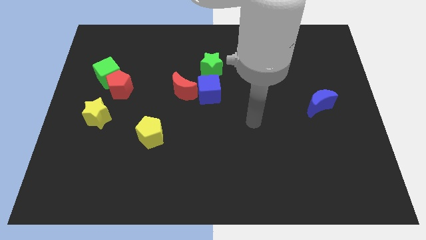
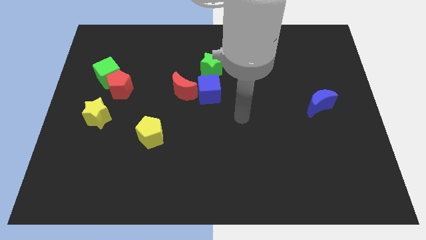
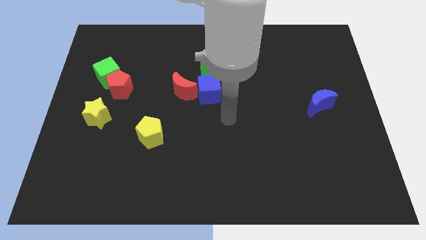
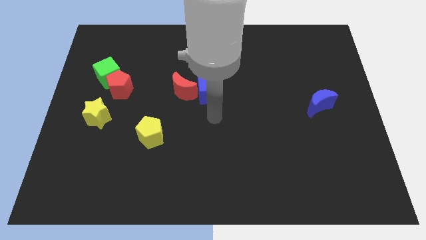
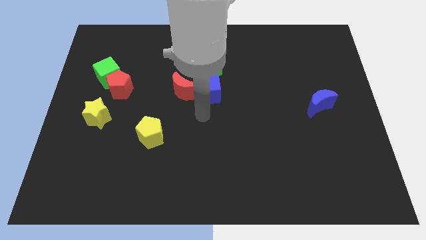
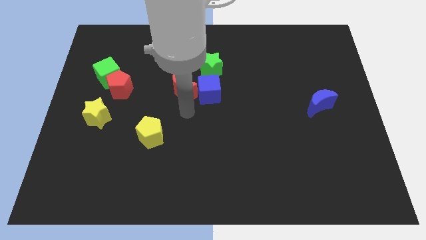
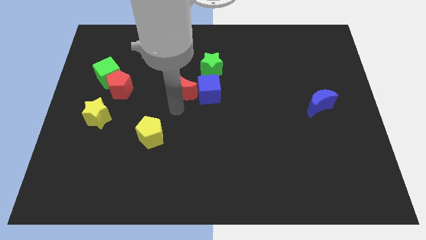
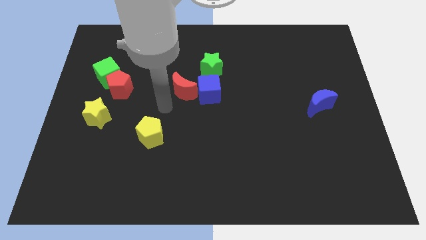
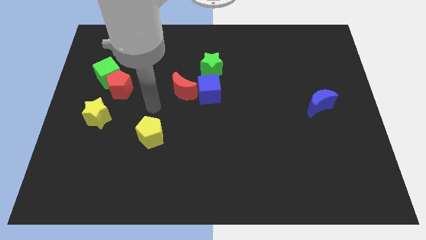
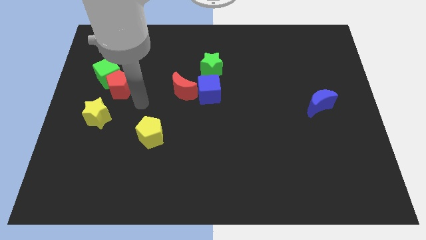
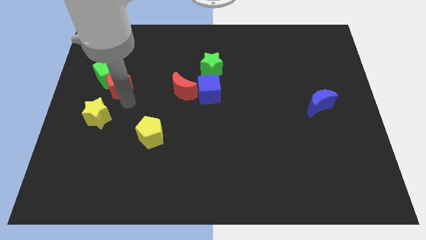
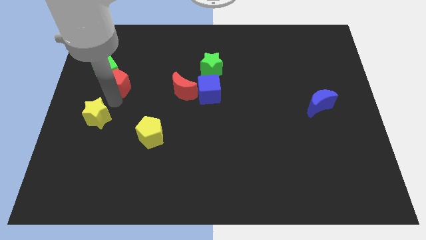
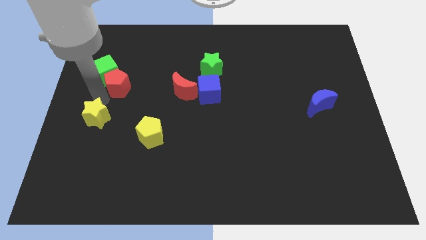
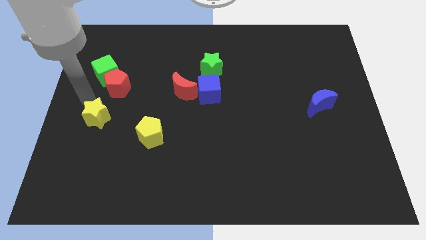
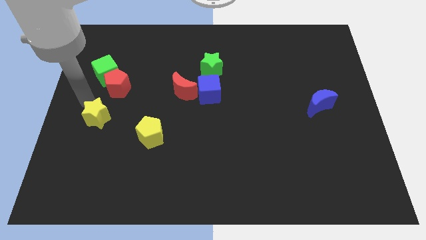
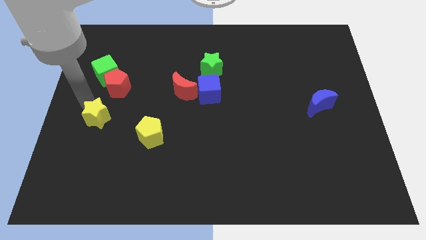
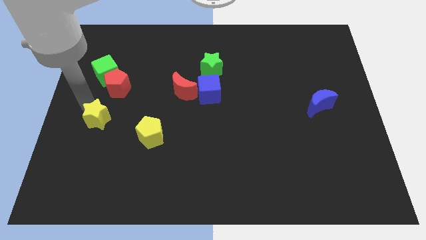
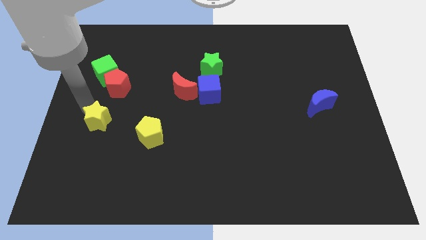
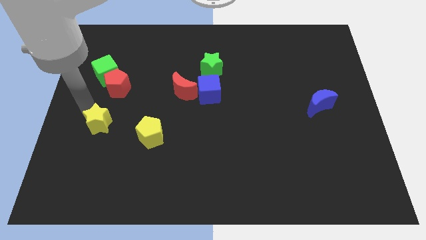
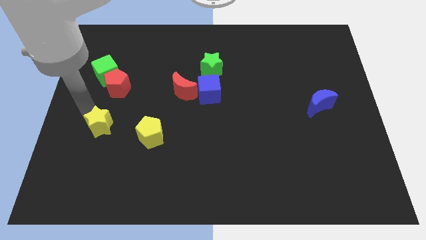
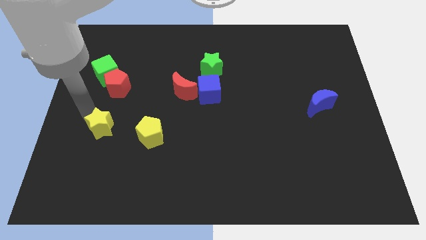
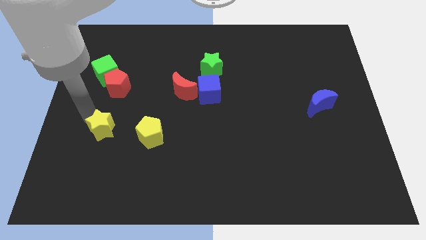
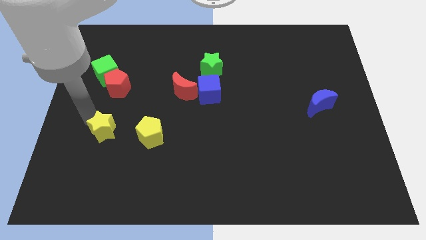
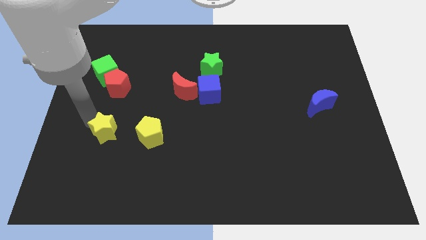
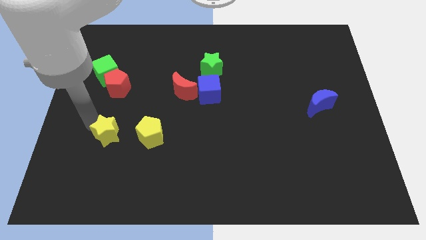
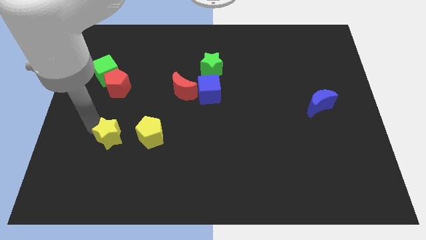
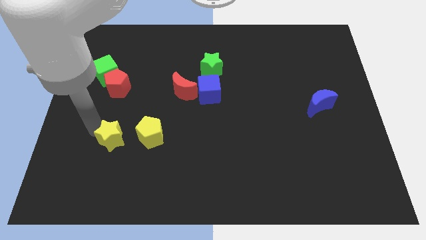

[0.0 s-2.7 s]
move the yellow star downwards and to the right a little bit

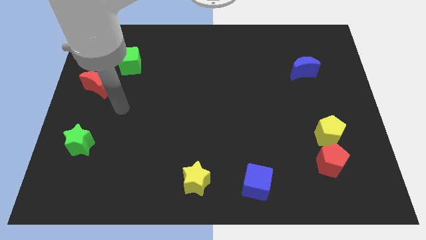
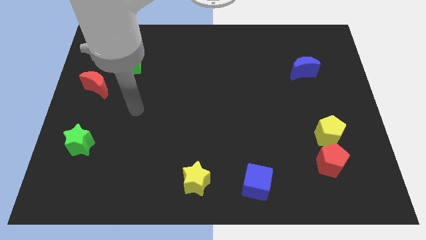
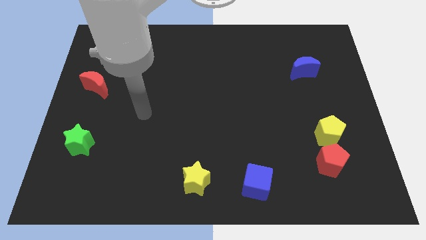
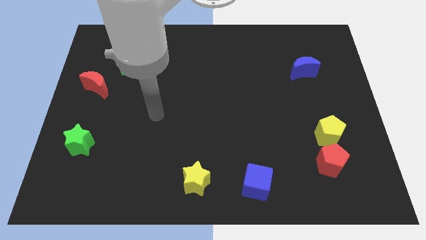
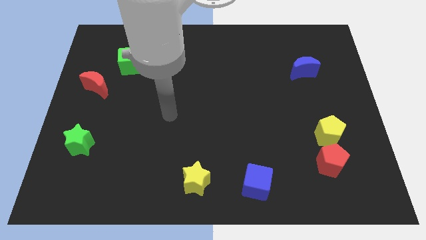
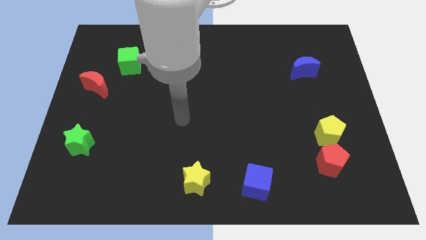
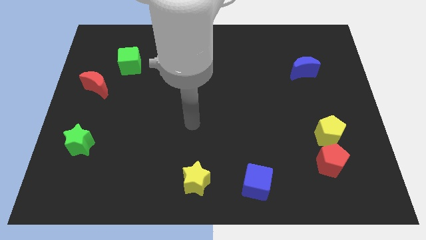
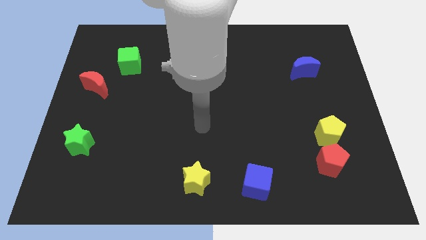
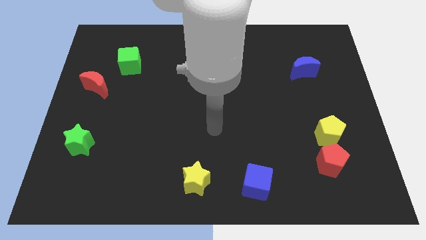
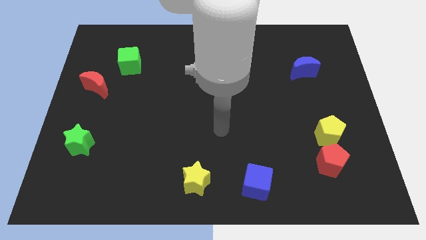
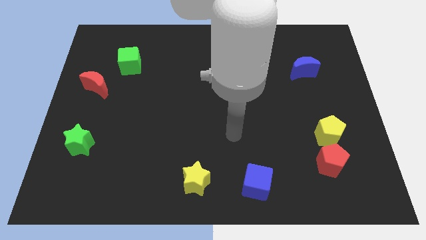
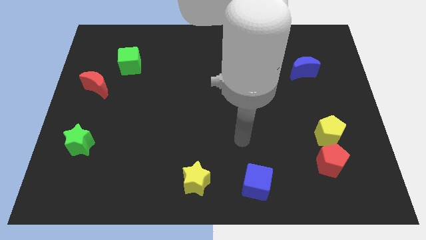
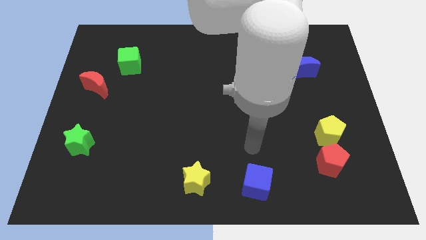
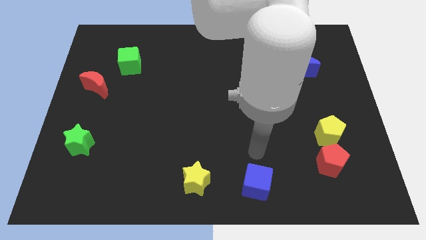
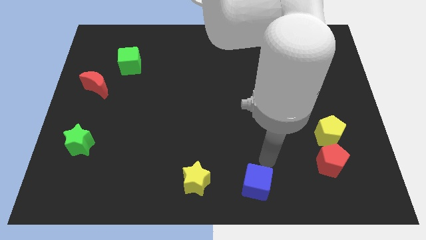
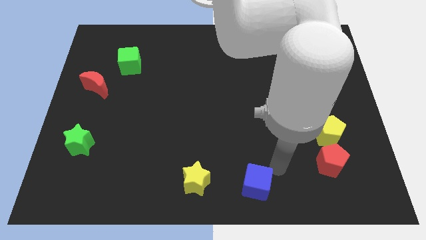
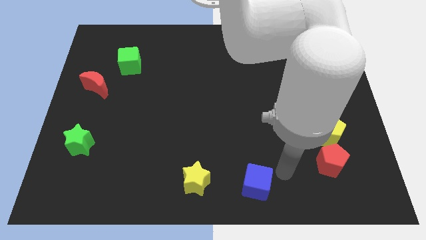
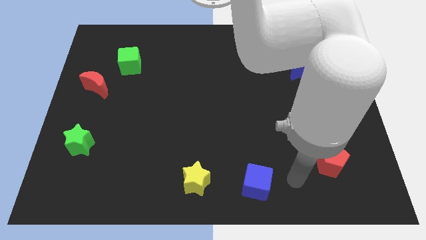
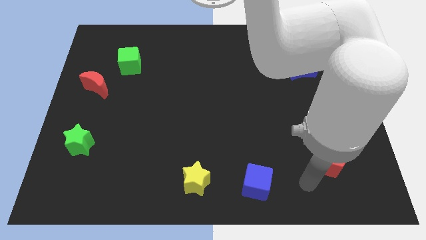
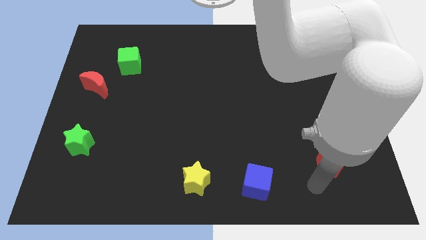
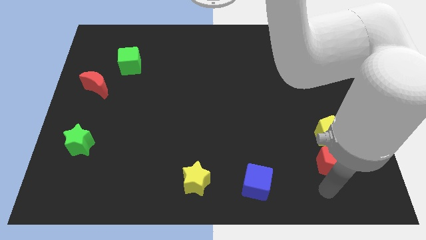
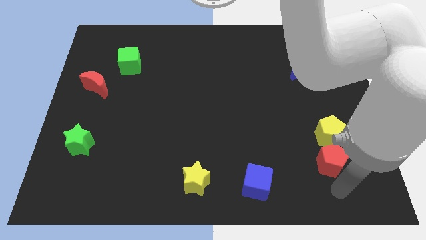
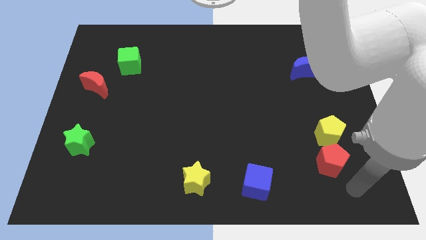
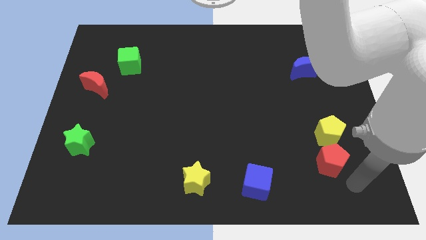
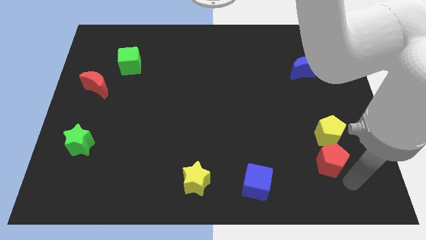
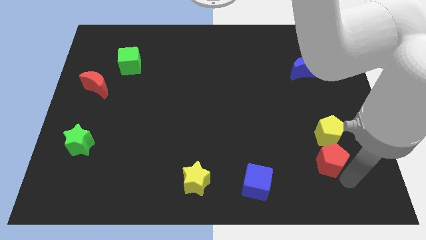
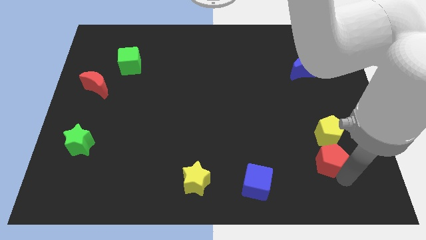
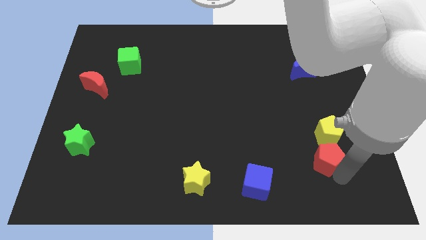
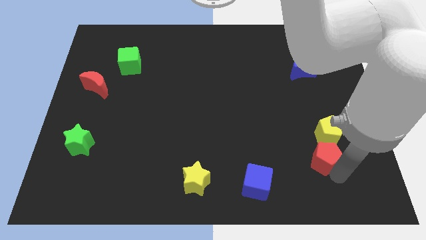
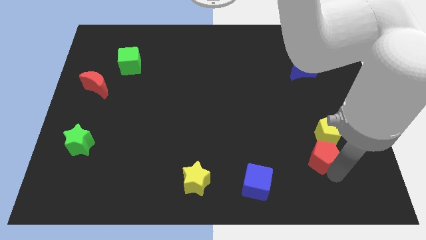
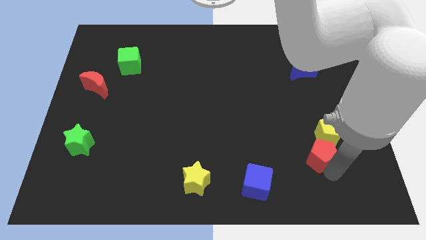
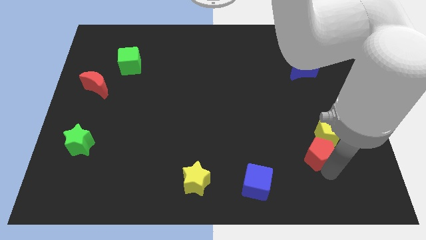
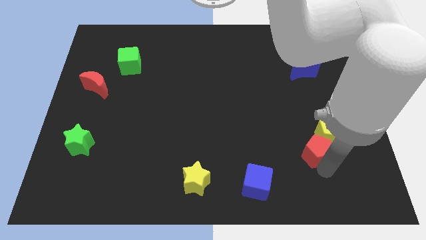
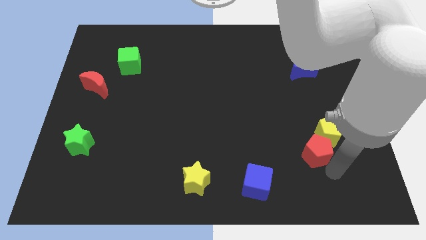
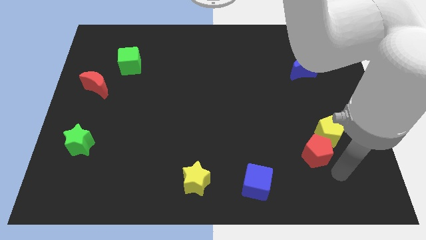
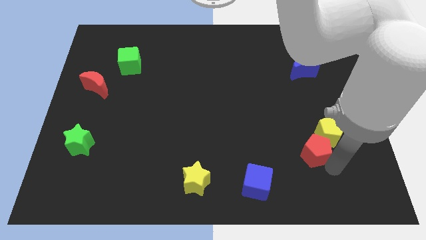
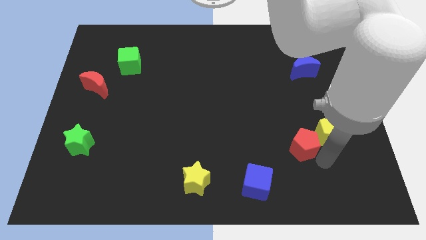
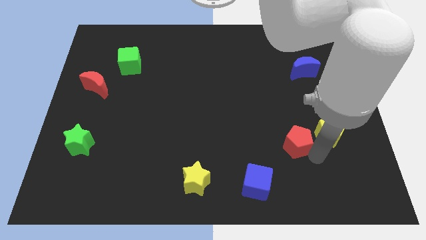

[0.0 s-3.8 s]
push the red pentagon up and then left a little

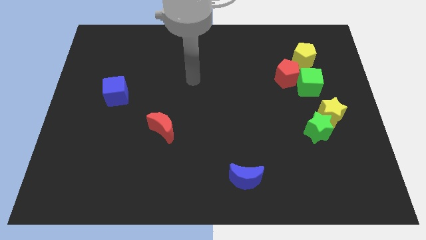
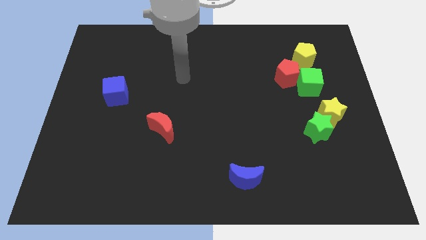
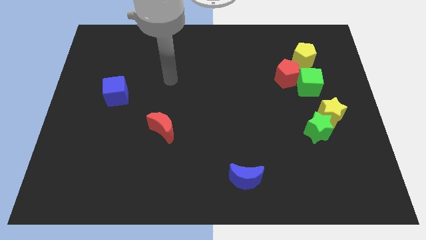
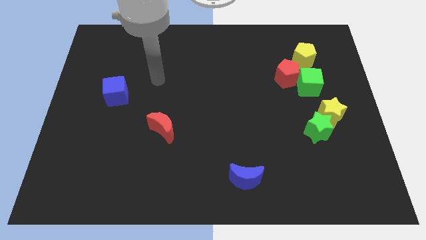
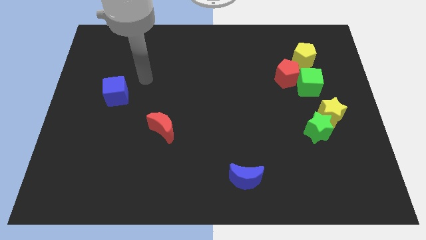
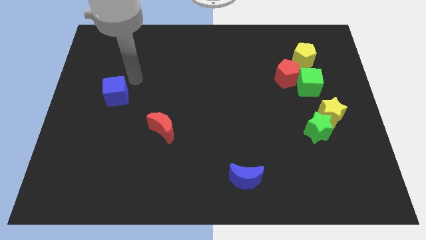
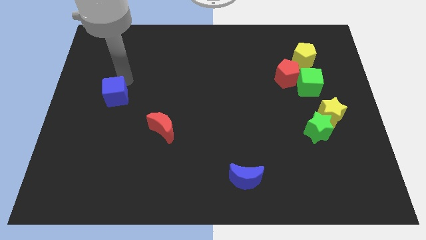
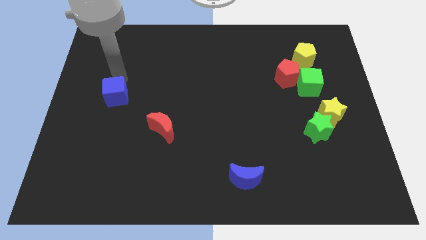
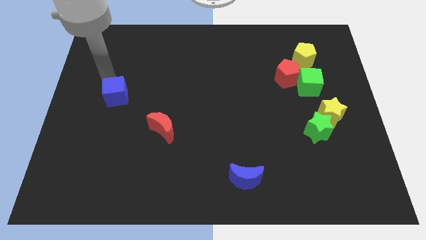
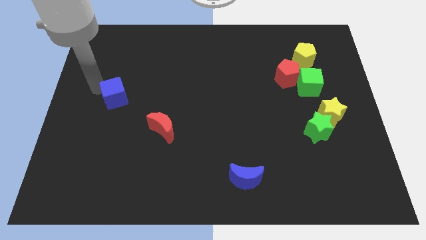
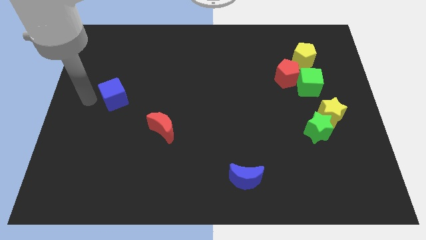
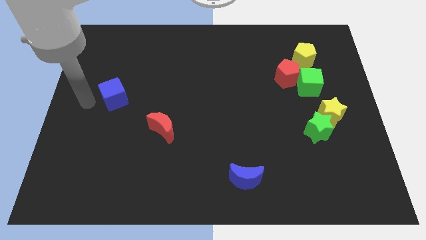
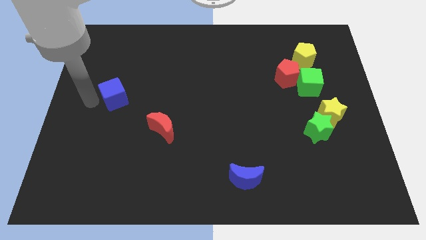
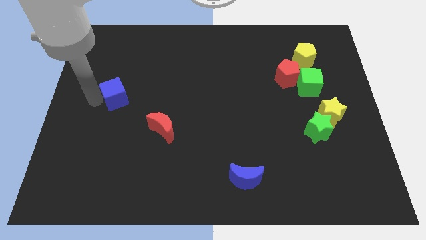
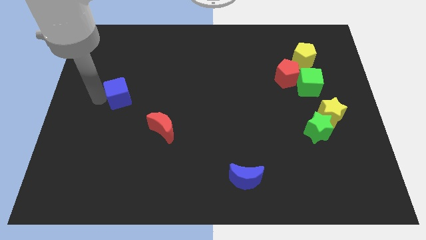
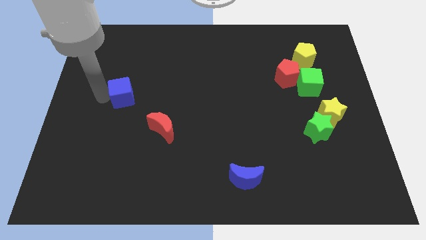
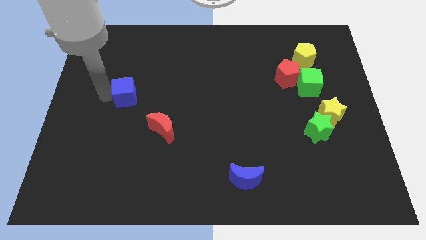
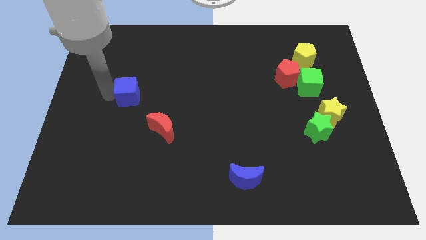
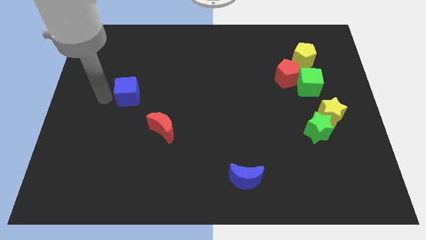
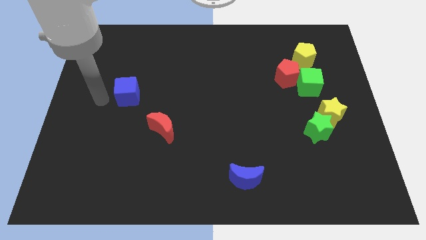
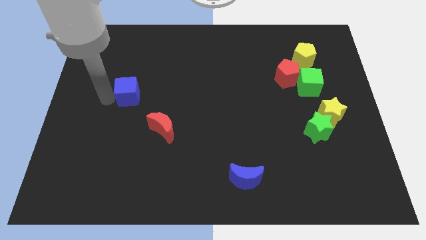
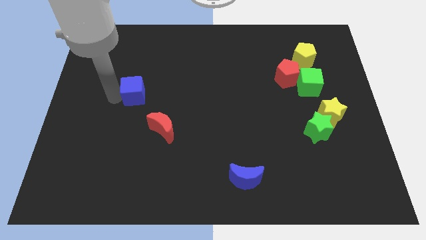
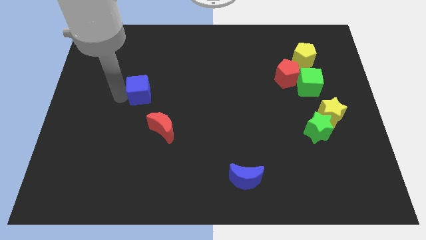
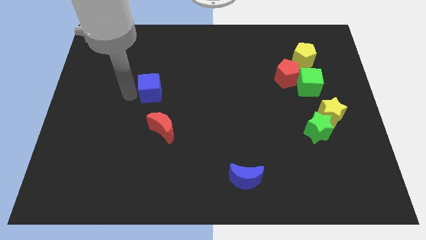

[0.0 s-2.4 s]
slightly move the blue cube right
